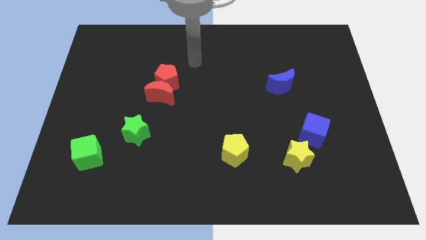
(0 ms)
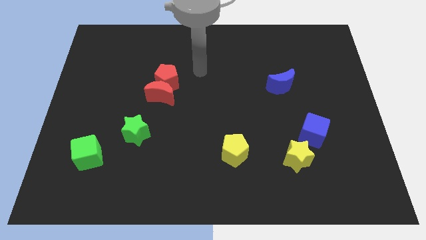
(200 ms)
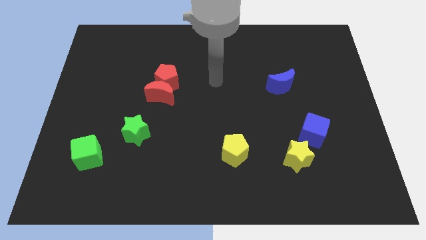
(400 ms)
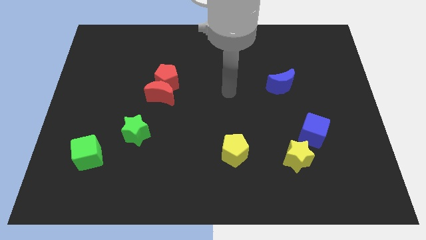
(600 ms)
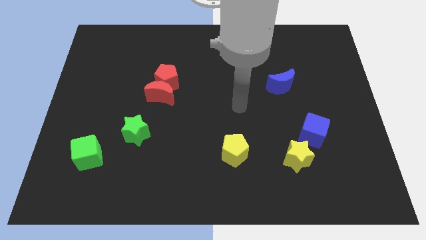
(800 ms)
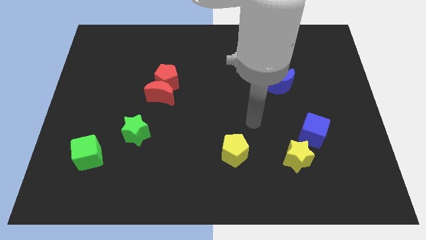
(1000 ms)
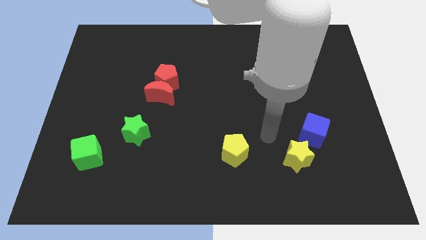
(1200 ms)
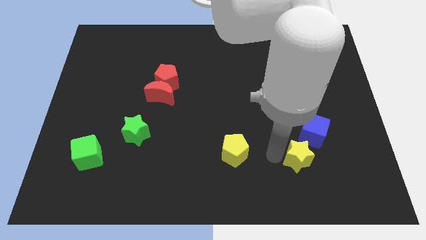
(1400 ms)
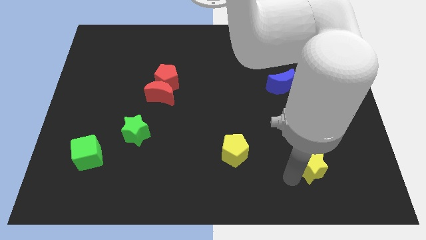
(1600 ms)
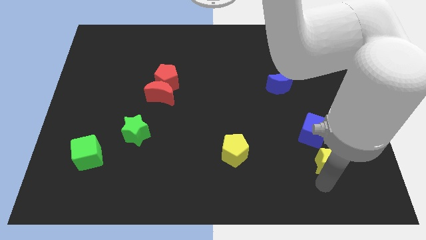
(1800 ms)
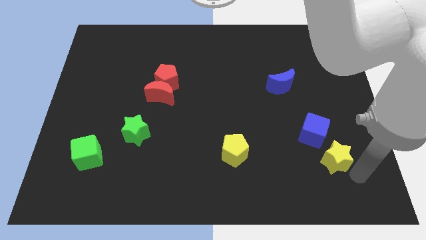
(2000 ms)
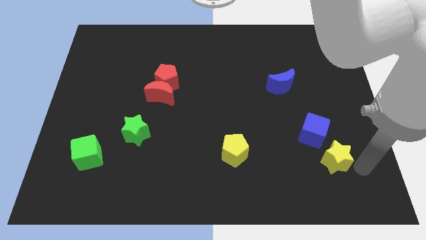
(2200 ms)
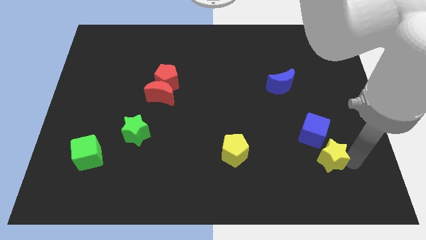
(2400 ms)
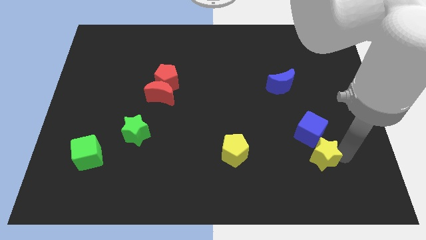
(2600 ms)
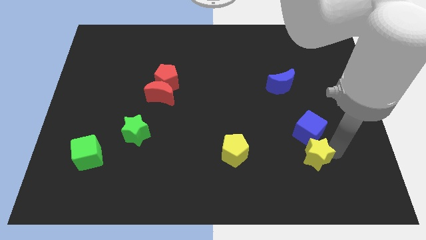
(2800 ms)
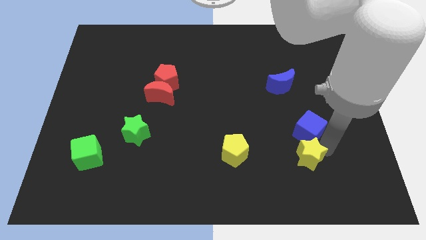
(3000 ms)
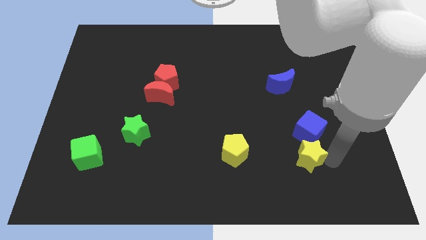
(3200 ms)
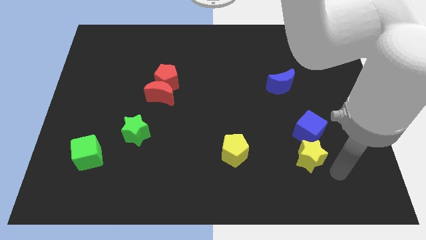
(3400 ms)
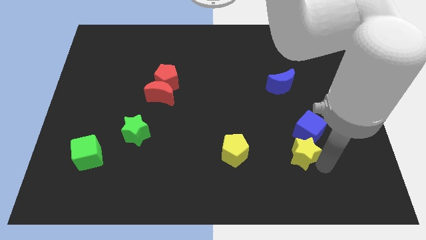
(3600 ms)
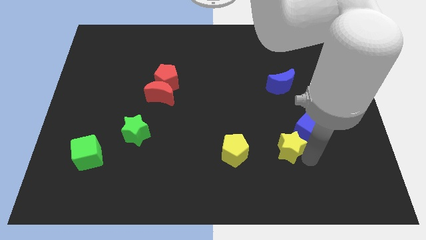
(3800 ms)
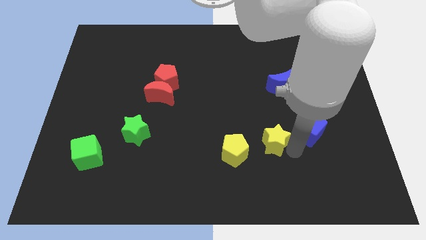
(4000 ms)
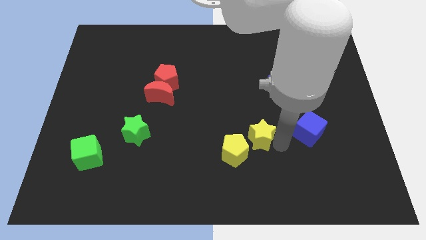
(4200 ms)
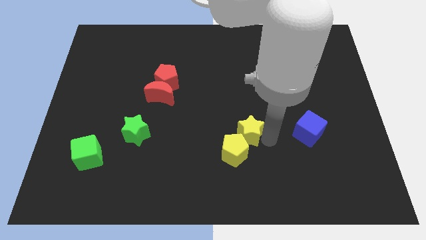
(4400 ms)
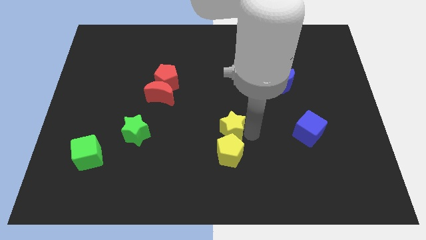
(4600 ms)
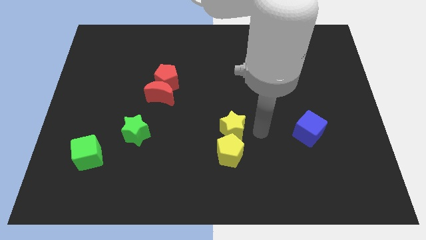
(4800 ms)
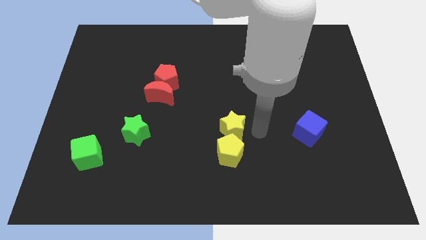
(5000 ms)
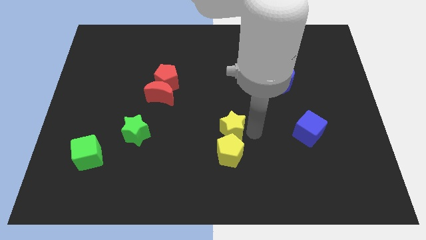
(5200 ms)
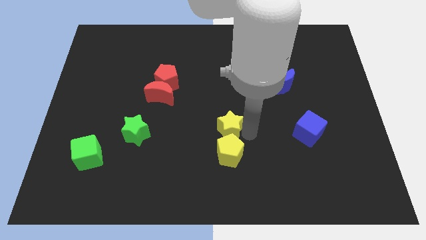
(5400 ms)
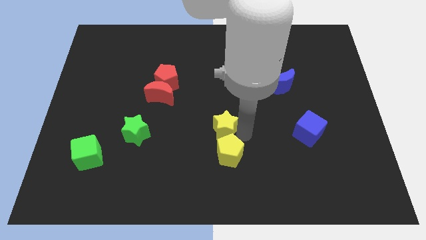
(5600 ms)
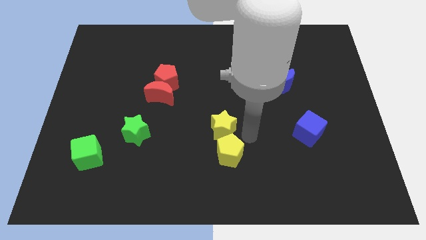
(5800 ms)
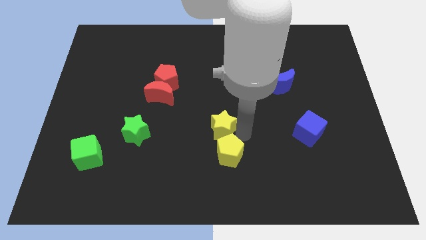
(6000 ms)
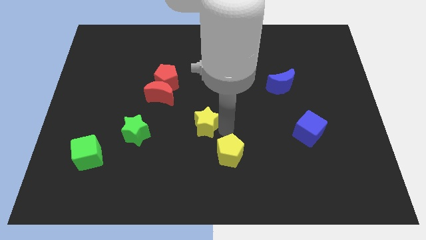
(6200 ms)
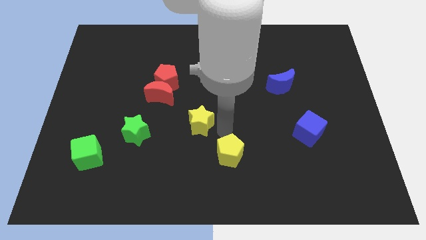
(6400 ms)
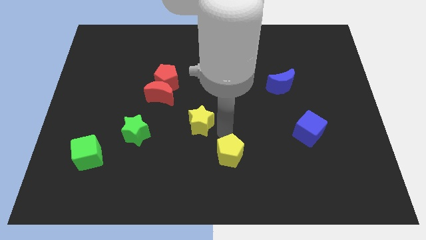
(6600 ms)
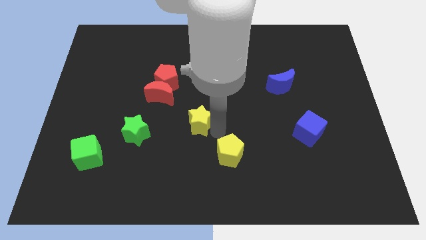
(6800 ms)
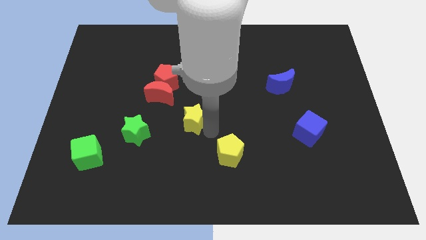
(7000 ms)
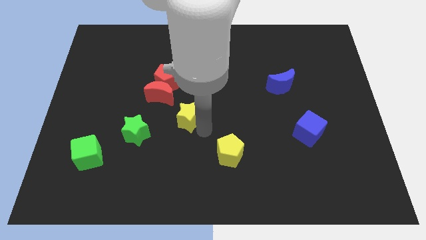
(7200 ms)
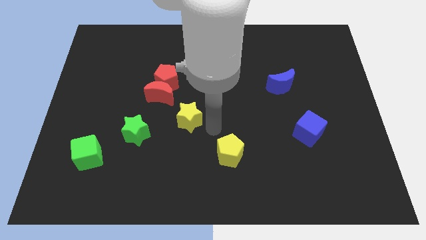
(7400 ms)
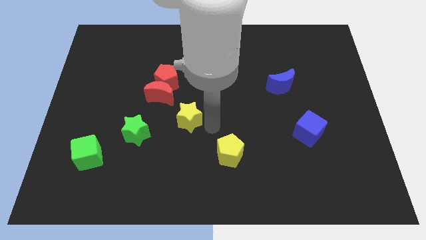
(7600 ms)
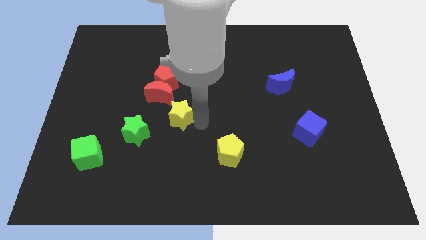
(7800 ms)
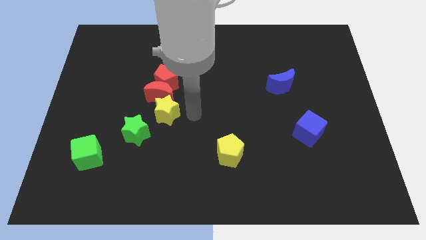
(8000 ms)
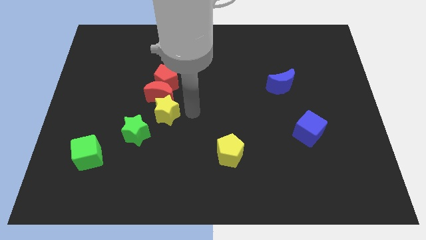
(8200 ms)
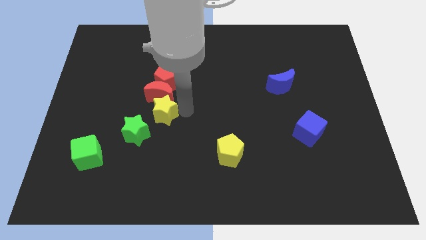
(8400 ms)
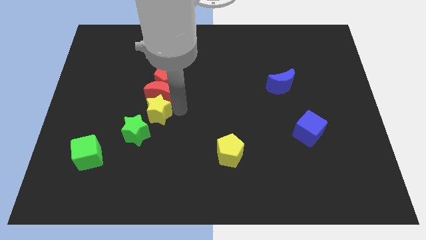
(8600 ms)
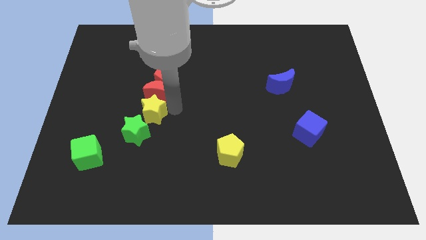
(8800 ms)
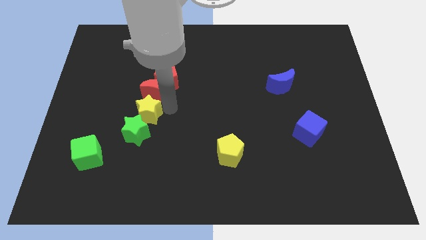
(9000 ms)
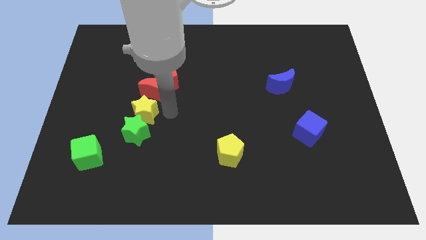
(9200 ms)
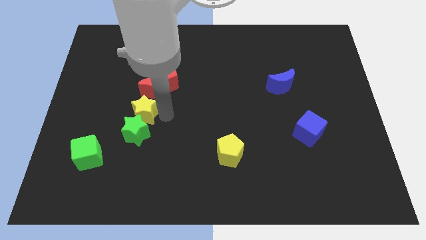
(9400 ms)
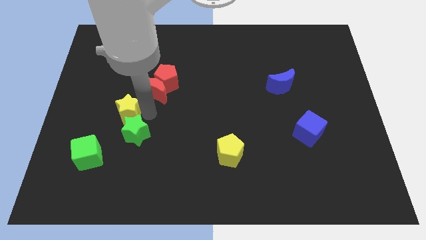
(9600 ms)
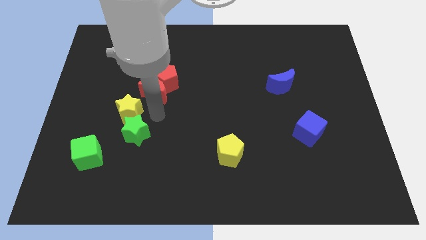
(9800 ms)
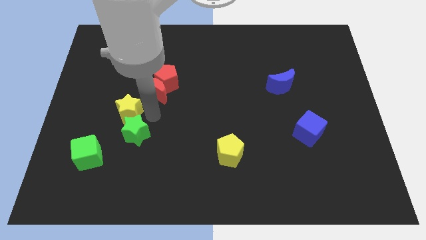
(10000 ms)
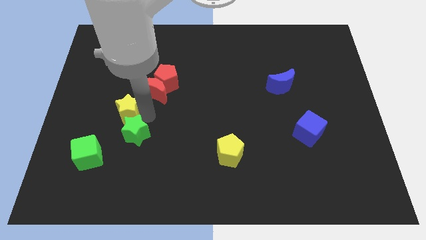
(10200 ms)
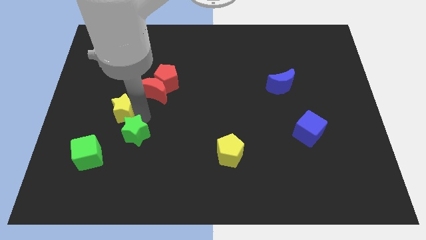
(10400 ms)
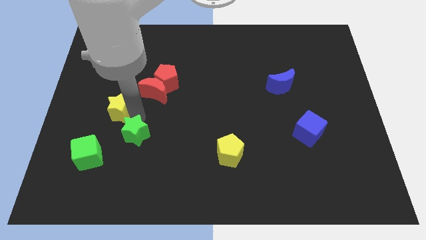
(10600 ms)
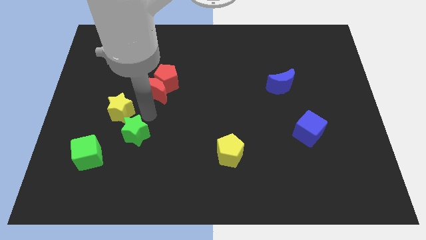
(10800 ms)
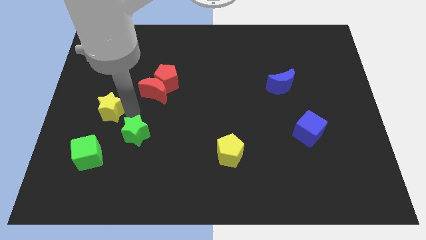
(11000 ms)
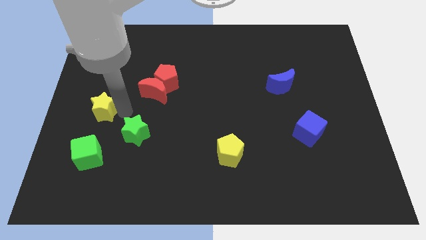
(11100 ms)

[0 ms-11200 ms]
move the yellow star to the center left

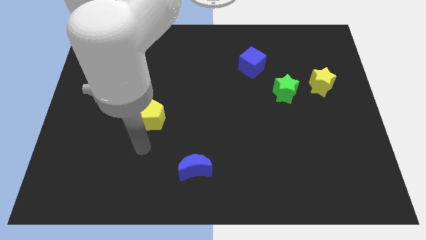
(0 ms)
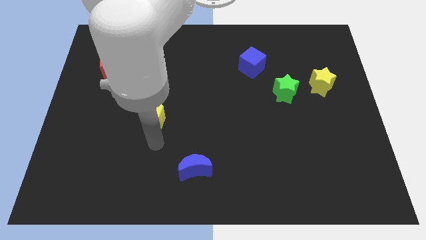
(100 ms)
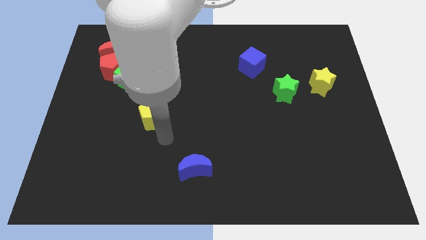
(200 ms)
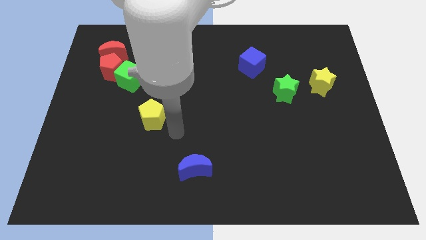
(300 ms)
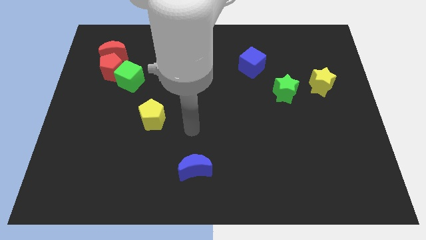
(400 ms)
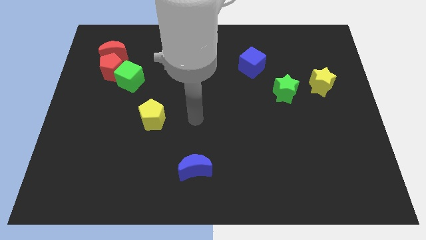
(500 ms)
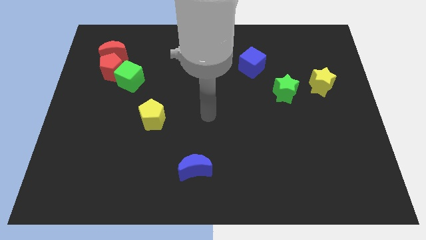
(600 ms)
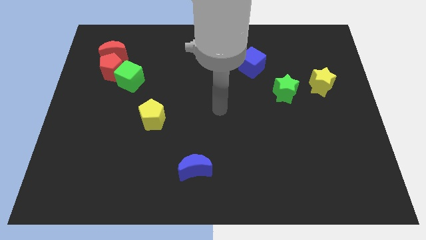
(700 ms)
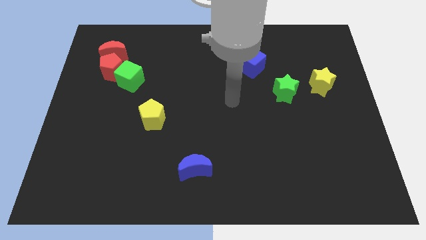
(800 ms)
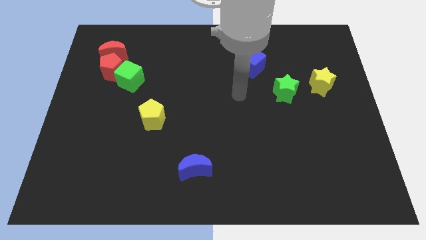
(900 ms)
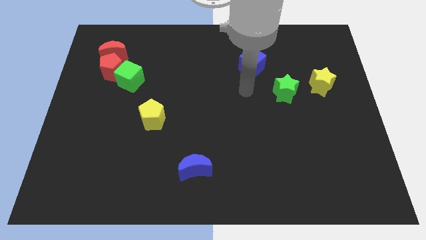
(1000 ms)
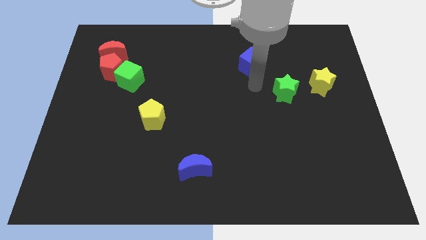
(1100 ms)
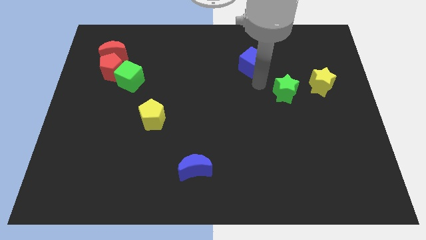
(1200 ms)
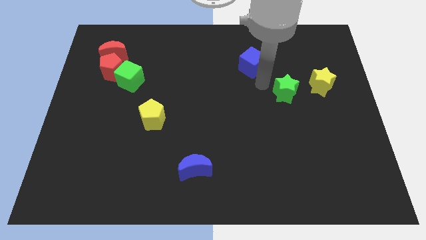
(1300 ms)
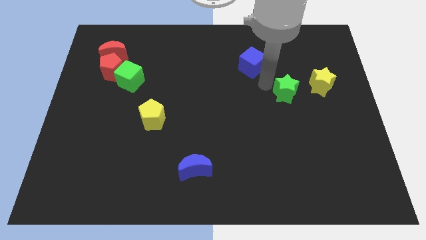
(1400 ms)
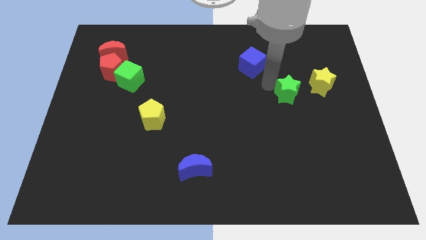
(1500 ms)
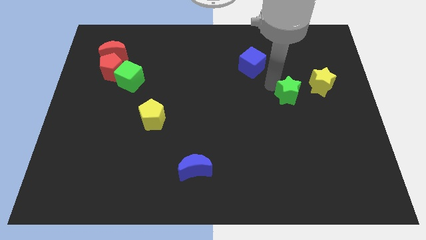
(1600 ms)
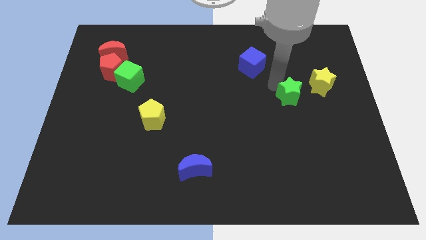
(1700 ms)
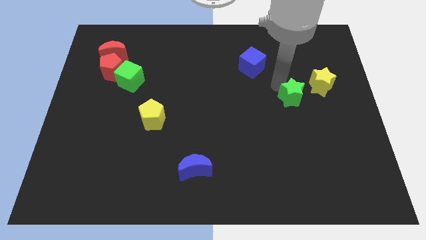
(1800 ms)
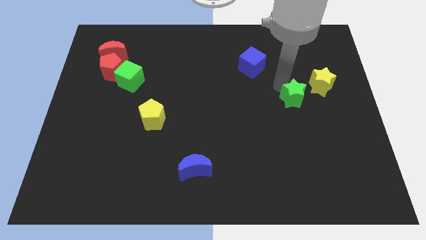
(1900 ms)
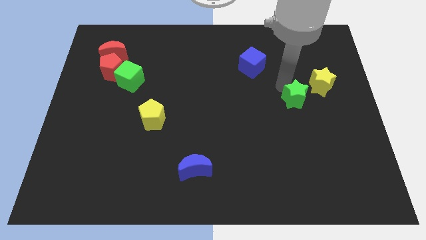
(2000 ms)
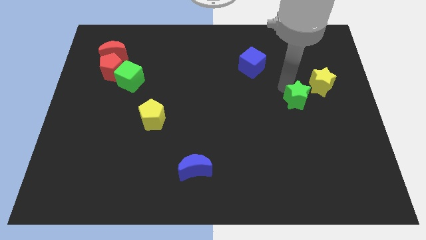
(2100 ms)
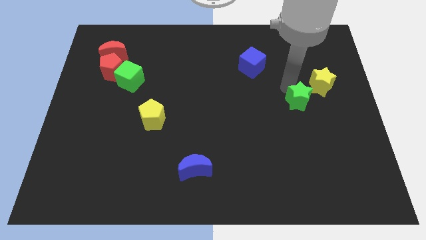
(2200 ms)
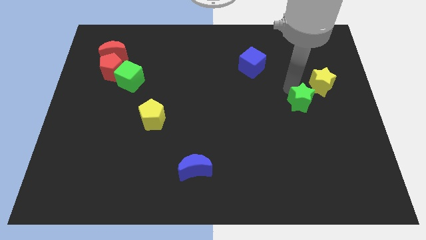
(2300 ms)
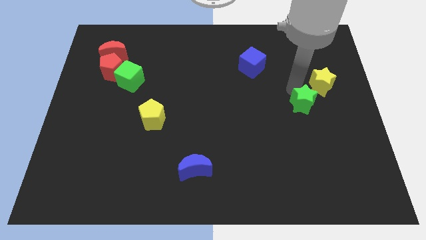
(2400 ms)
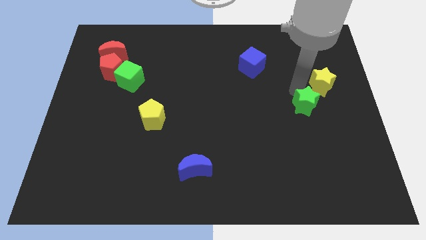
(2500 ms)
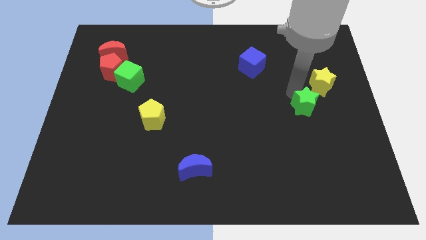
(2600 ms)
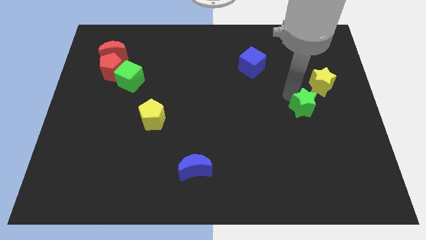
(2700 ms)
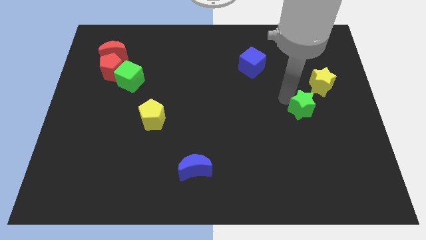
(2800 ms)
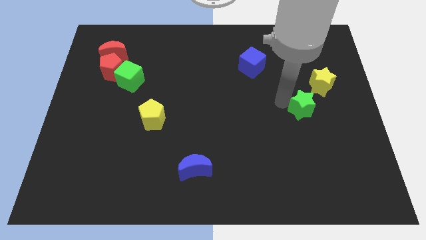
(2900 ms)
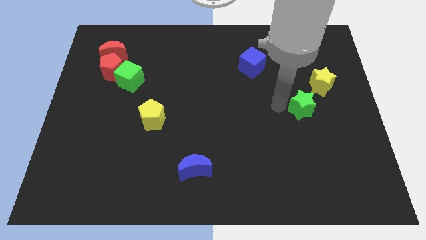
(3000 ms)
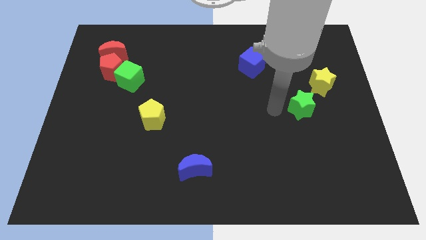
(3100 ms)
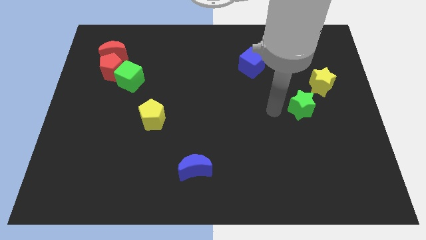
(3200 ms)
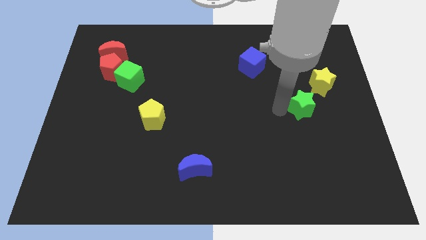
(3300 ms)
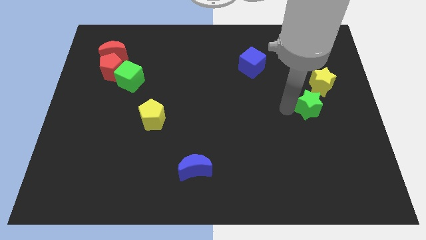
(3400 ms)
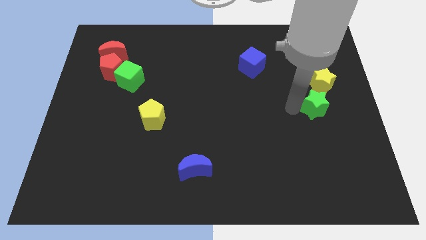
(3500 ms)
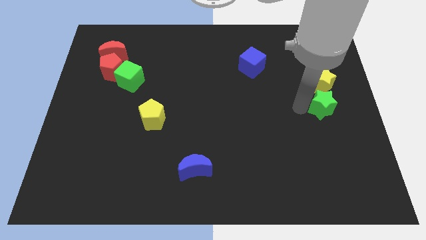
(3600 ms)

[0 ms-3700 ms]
slide the green star to the right side
